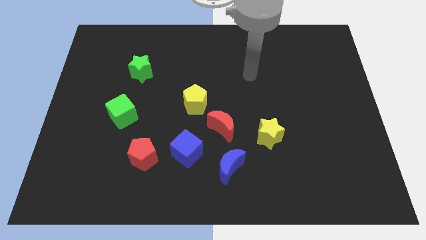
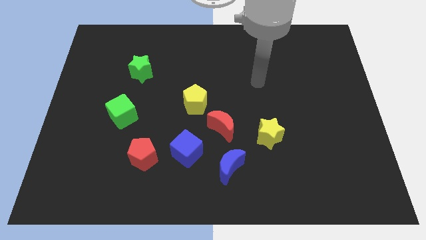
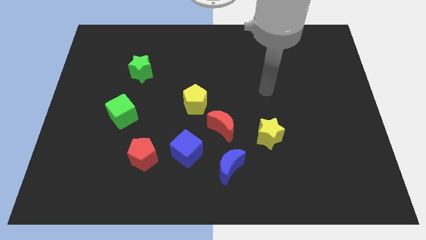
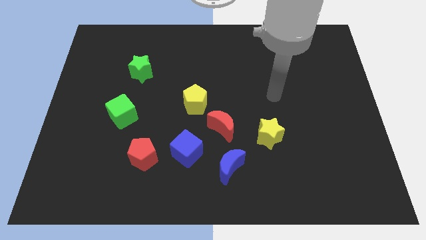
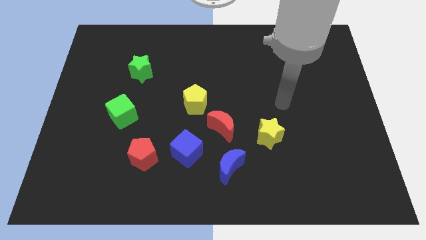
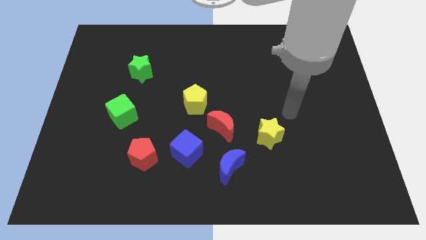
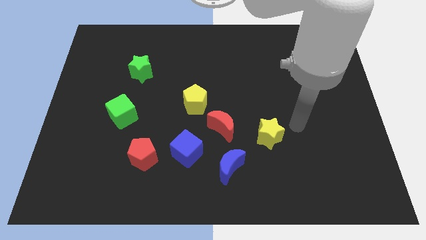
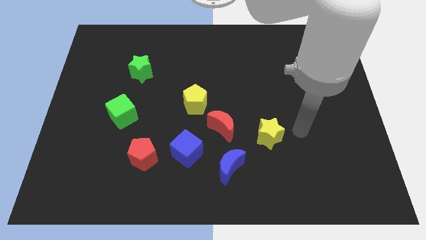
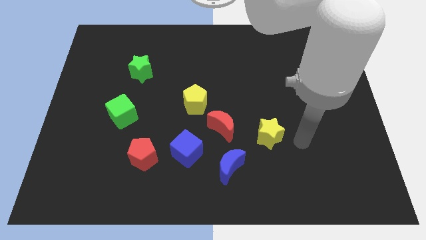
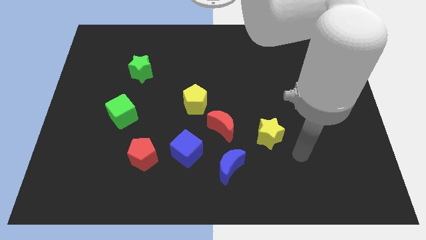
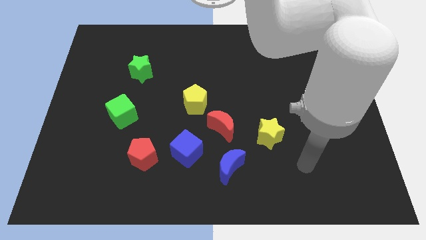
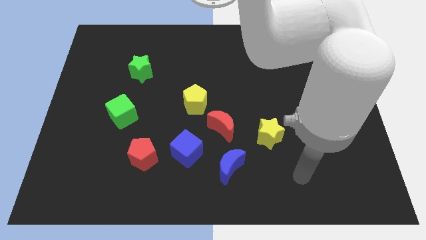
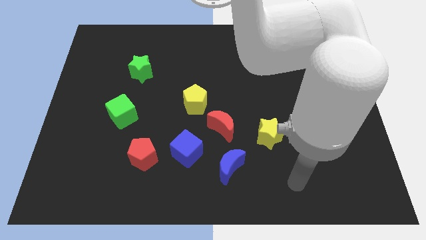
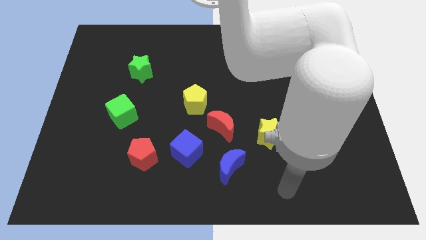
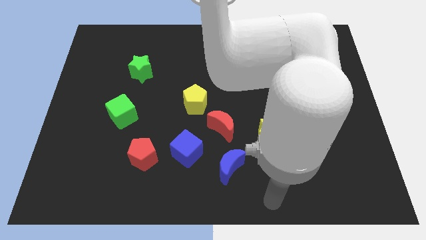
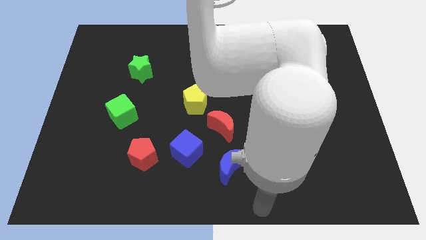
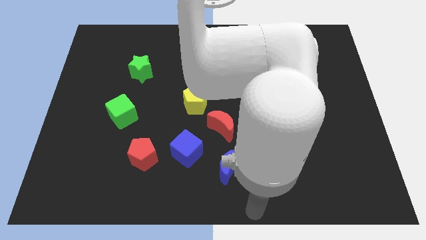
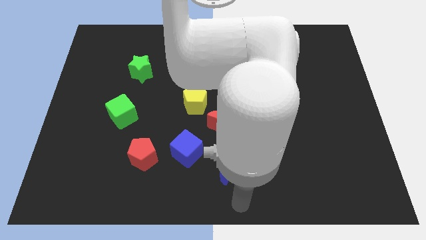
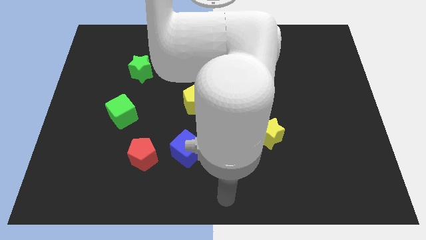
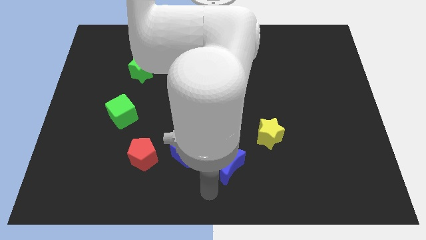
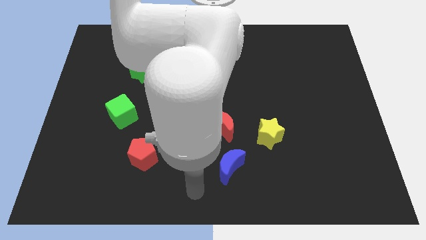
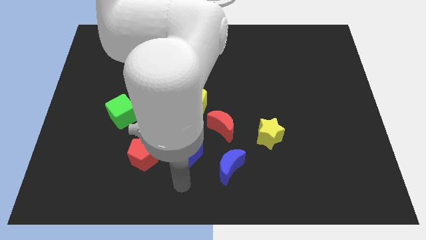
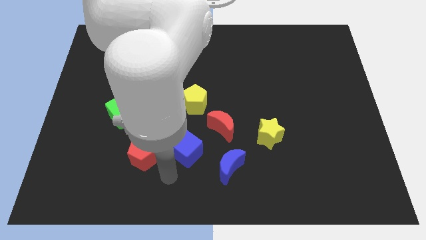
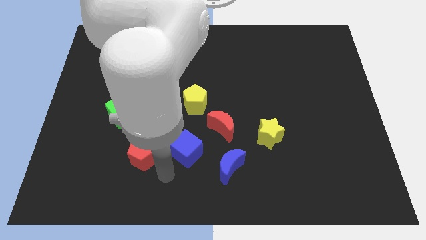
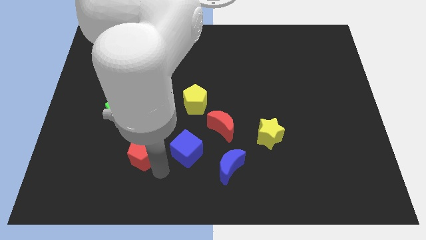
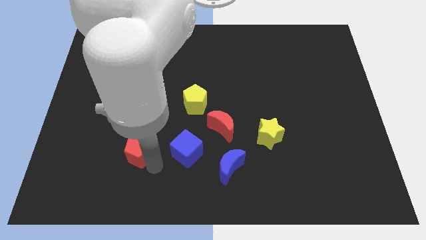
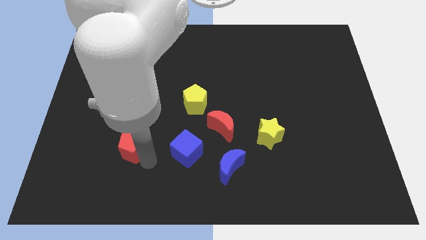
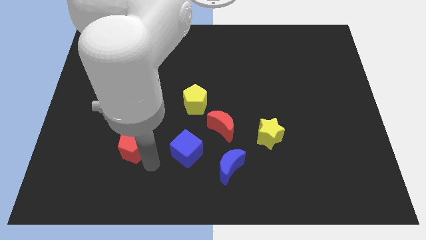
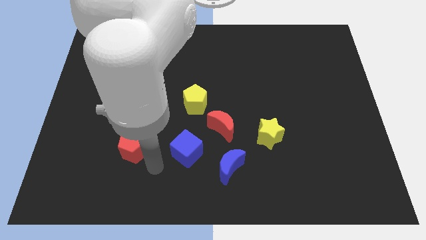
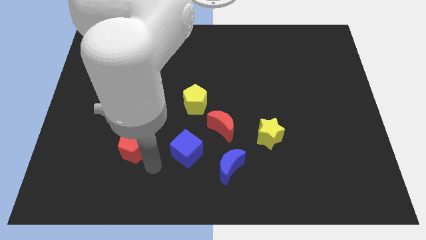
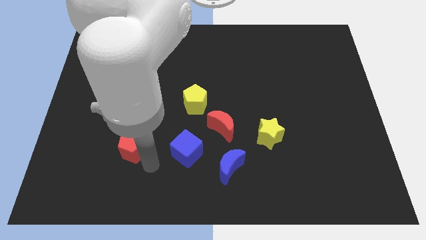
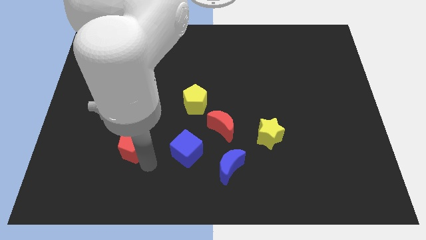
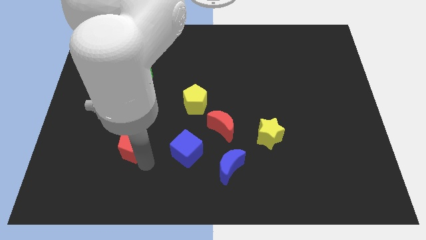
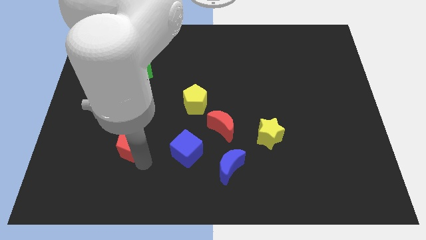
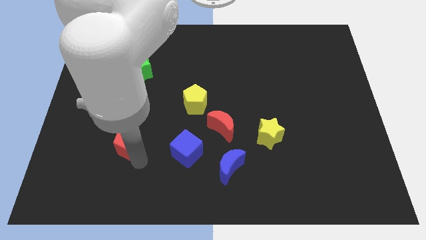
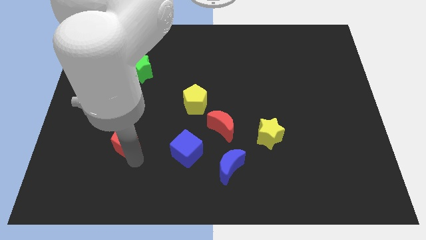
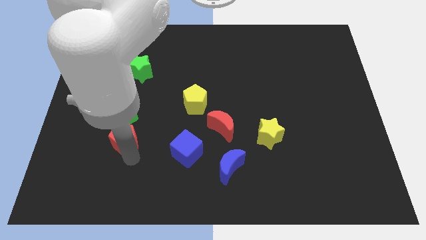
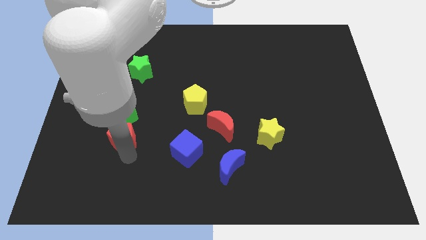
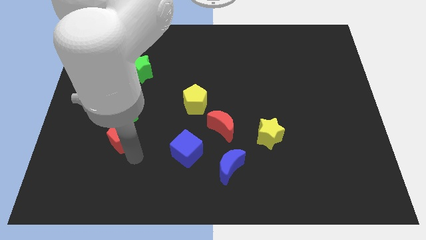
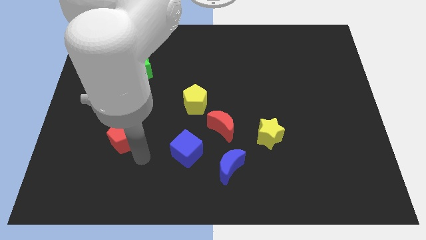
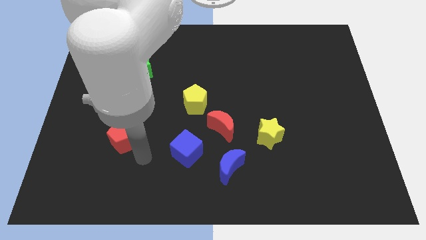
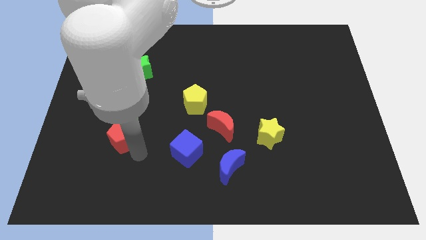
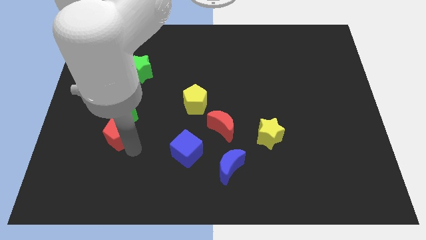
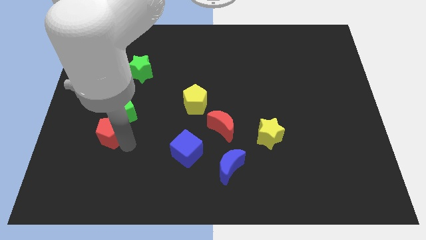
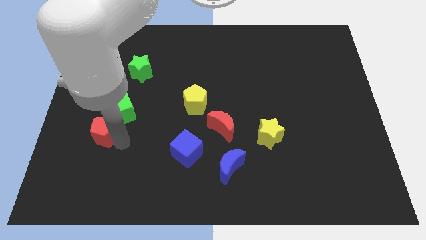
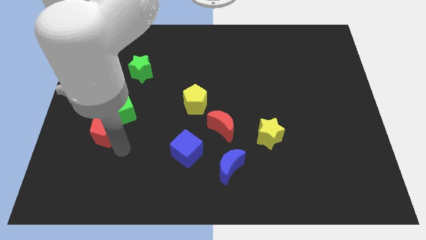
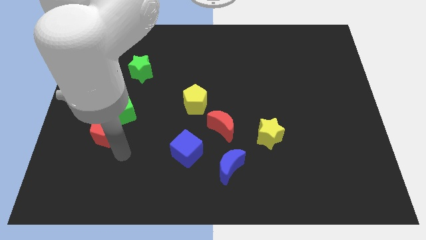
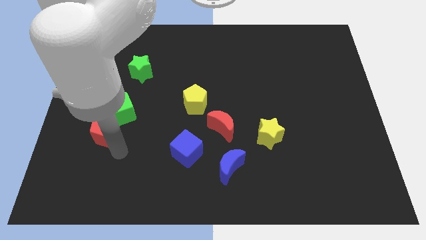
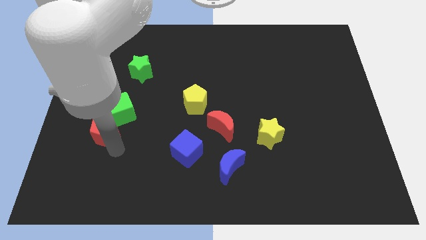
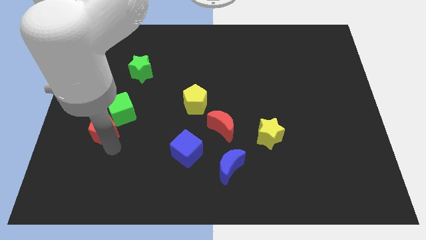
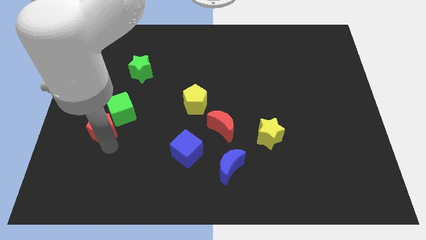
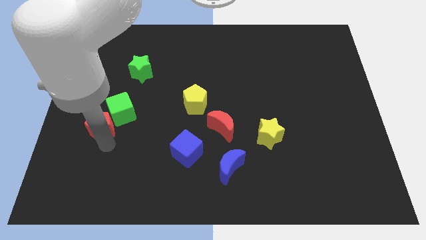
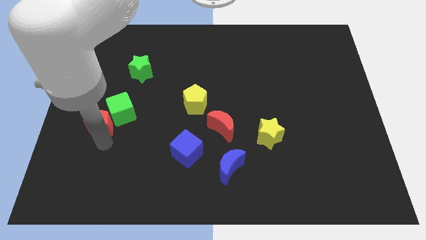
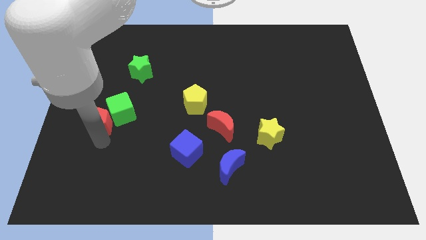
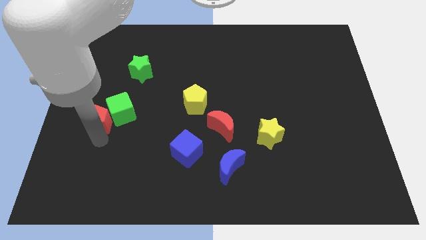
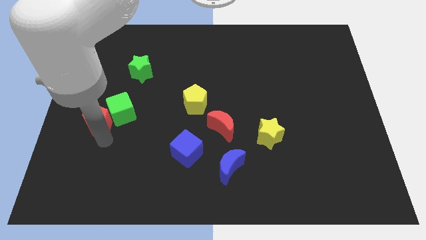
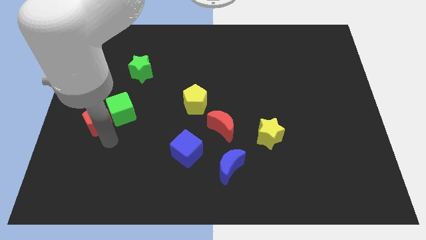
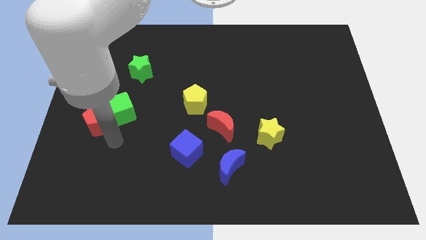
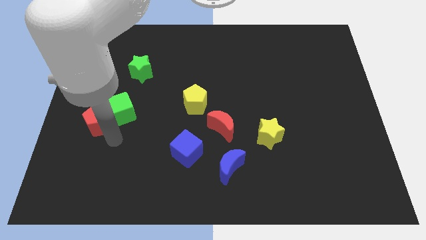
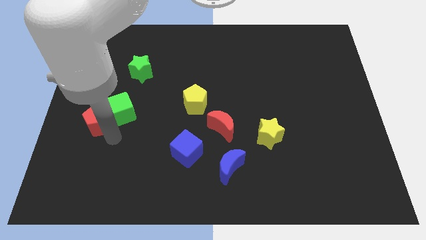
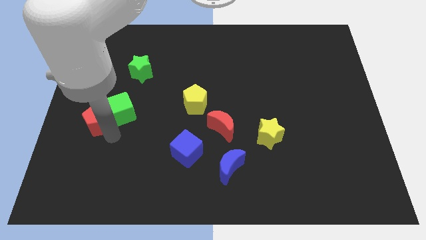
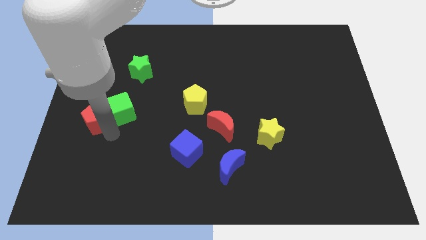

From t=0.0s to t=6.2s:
push the red pentagon to the left side
